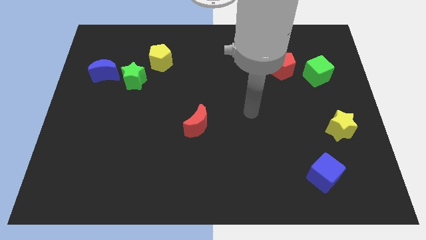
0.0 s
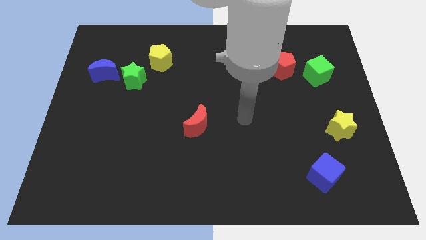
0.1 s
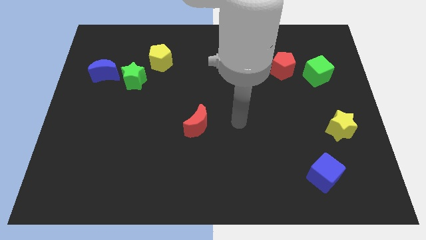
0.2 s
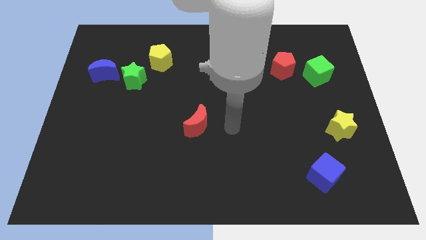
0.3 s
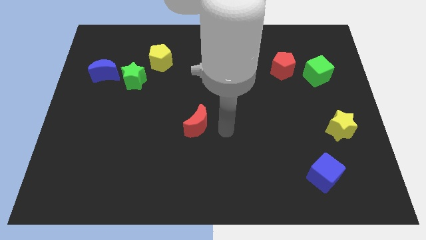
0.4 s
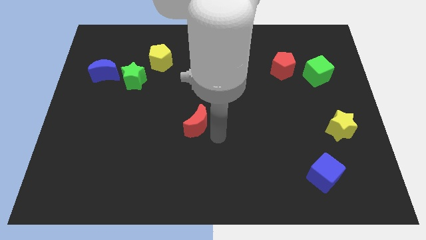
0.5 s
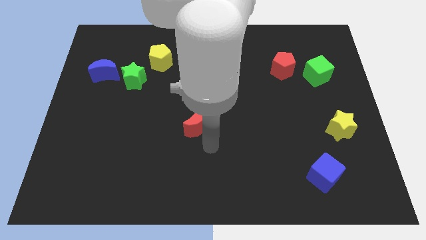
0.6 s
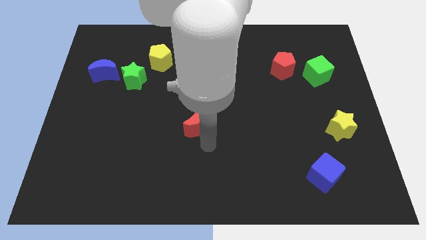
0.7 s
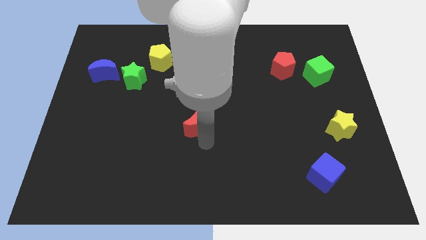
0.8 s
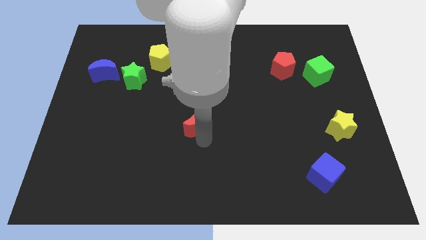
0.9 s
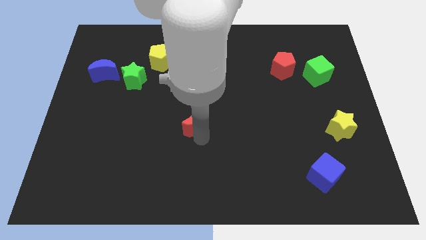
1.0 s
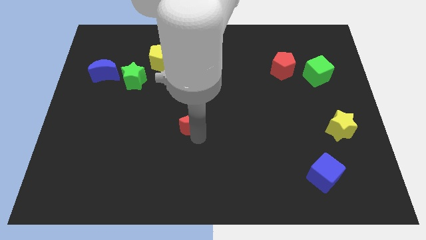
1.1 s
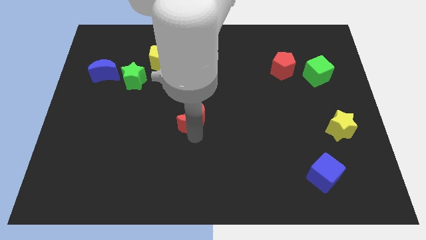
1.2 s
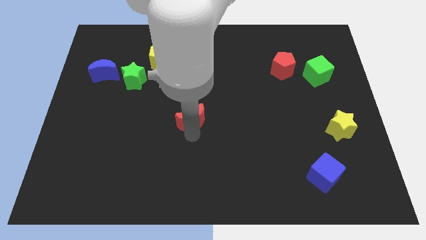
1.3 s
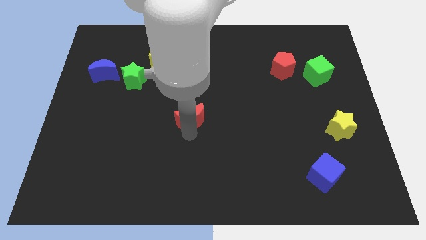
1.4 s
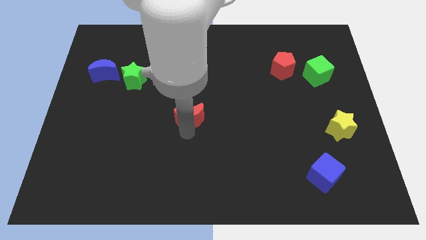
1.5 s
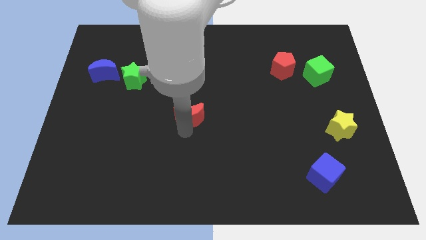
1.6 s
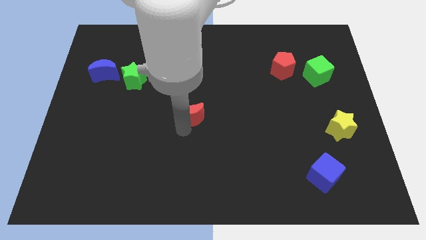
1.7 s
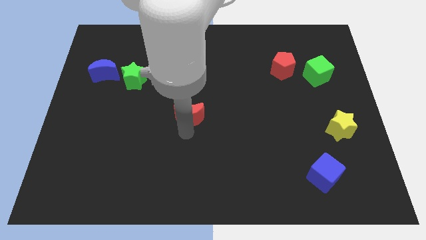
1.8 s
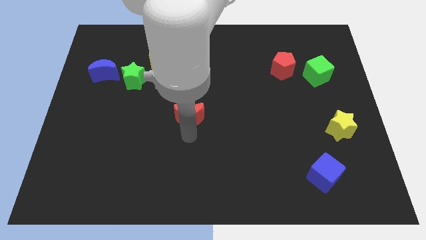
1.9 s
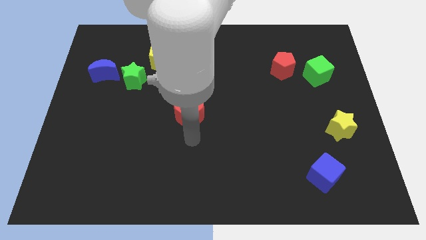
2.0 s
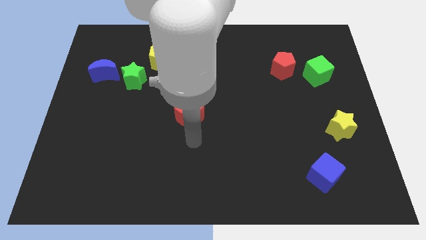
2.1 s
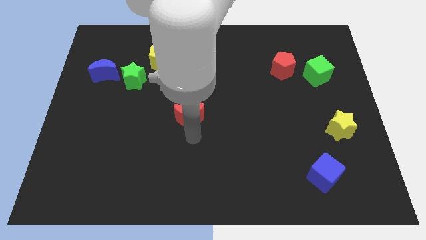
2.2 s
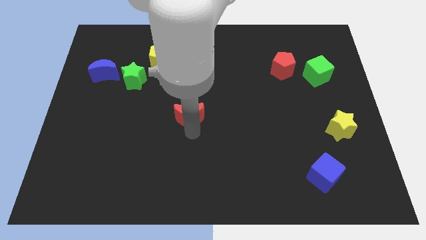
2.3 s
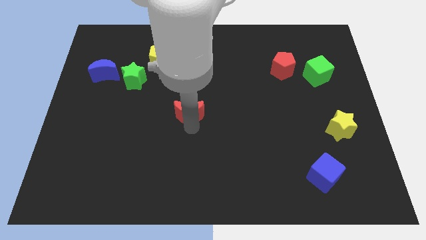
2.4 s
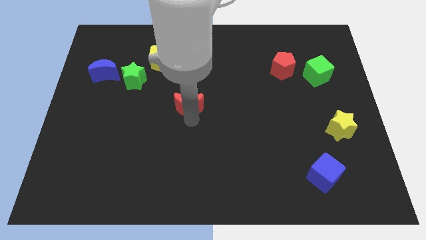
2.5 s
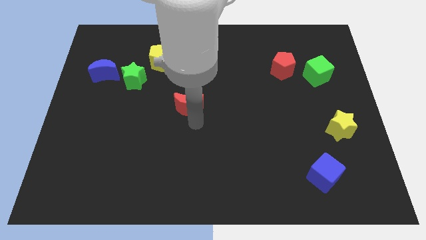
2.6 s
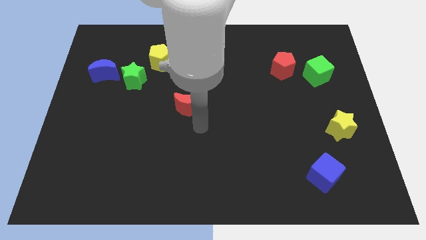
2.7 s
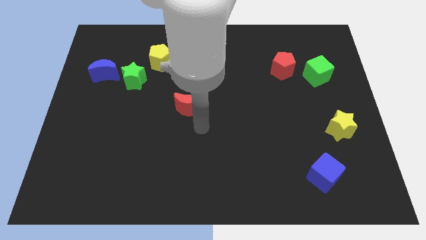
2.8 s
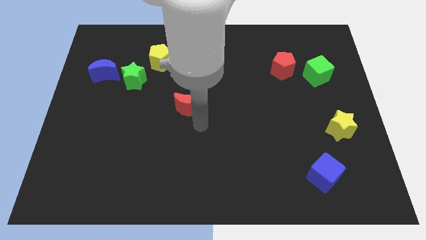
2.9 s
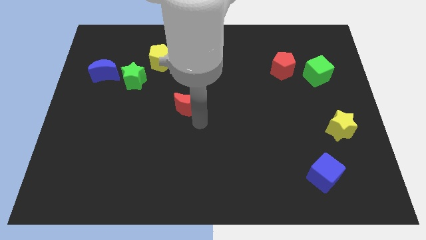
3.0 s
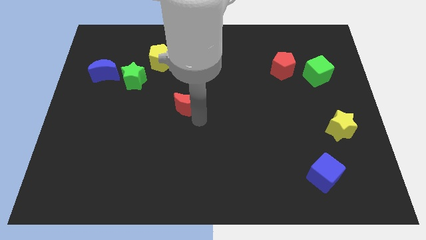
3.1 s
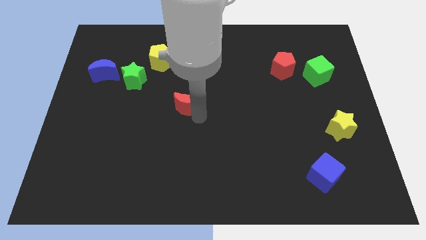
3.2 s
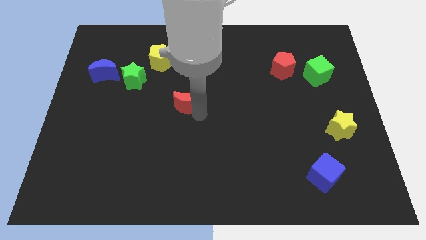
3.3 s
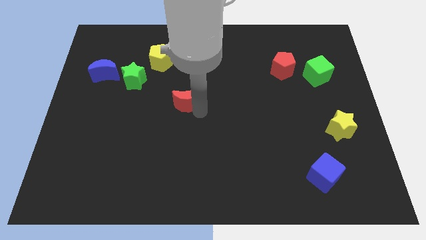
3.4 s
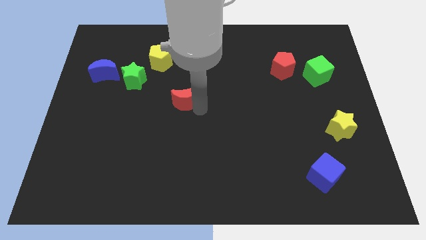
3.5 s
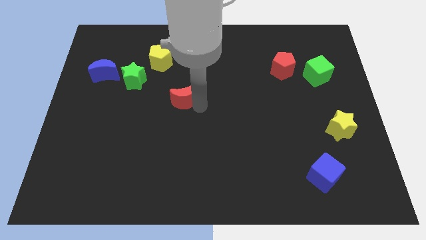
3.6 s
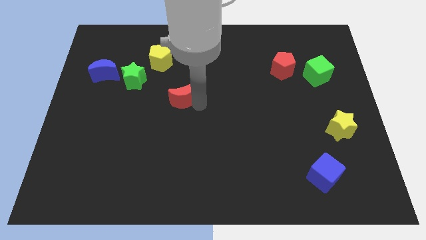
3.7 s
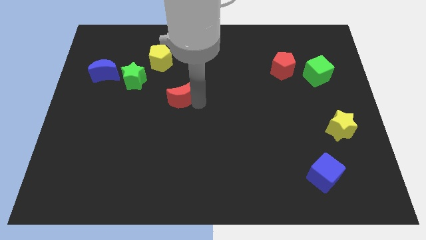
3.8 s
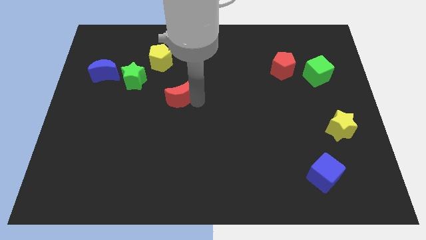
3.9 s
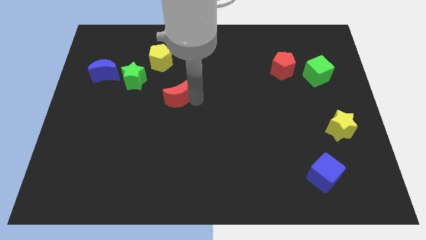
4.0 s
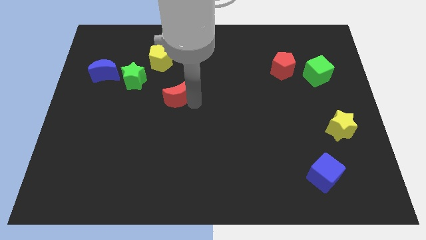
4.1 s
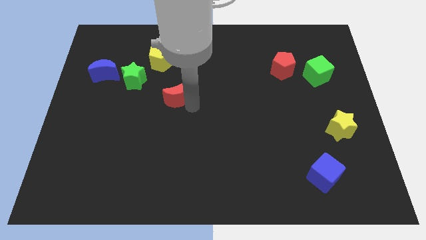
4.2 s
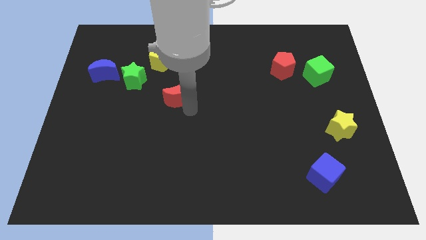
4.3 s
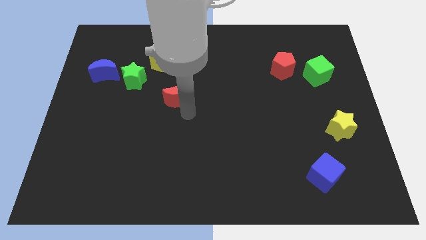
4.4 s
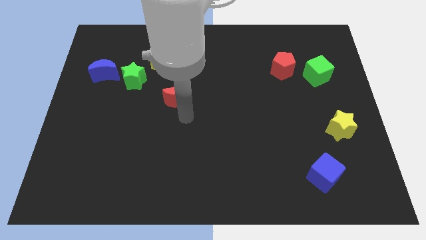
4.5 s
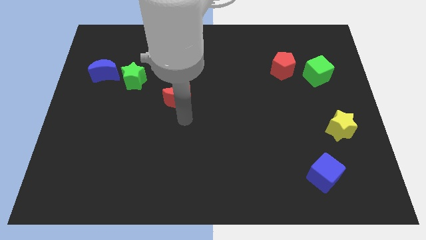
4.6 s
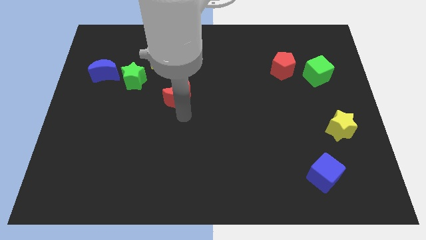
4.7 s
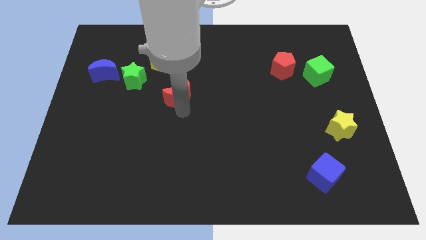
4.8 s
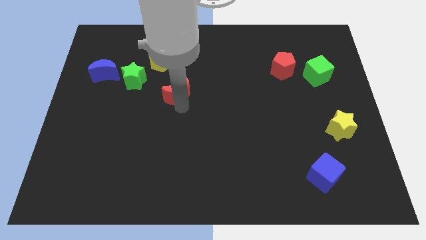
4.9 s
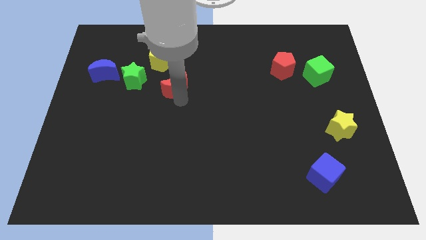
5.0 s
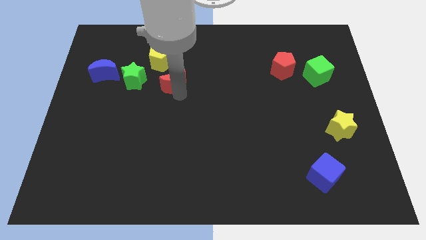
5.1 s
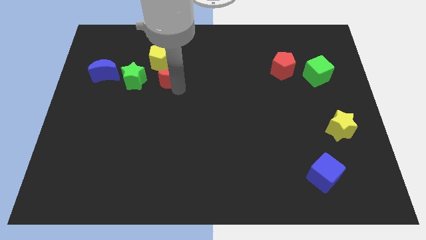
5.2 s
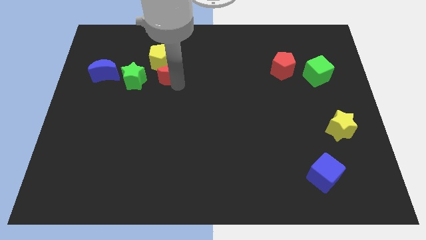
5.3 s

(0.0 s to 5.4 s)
push the red moon towards the yellow pentagon

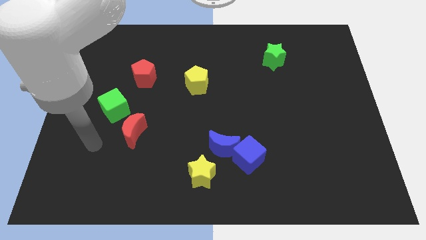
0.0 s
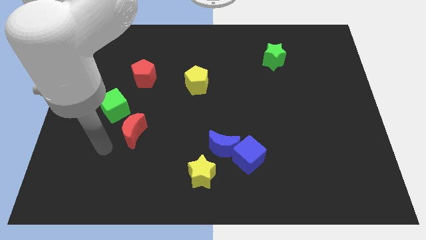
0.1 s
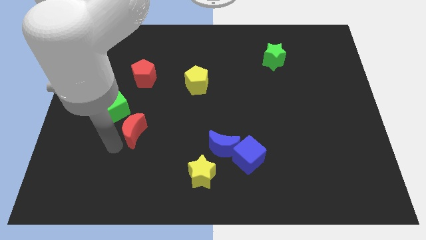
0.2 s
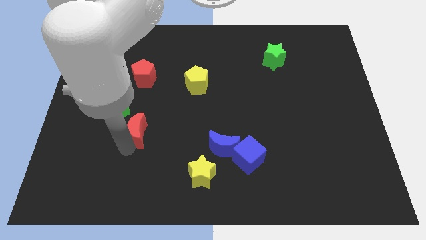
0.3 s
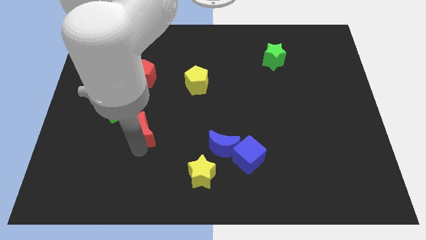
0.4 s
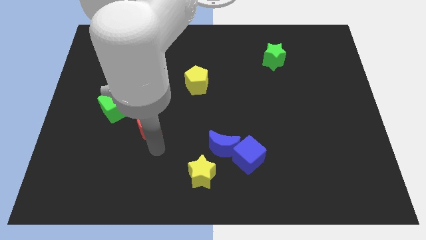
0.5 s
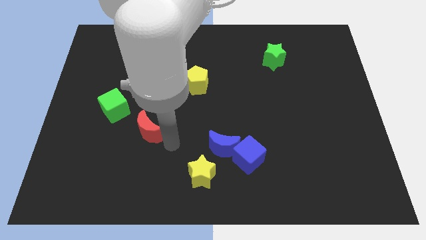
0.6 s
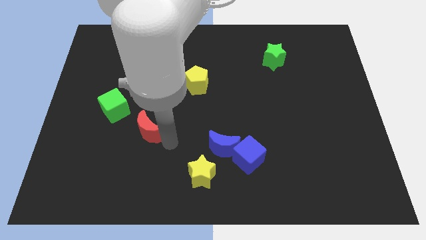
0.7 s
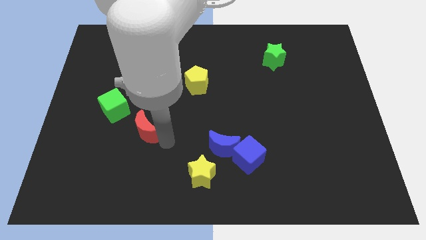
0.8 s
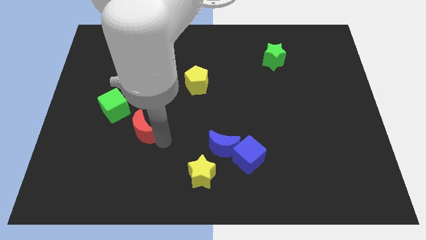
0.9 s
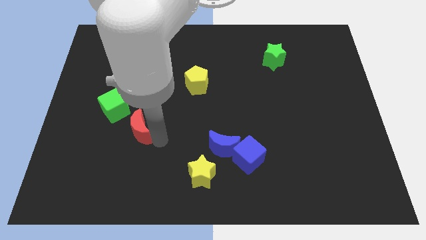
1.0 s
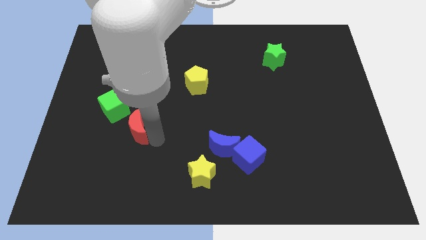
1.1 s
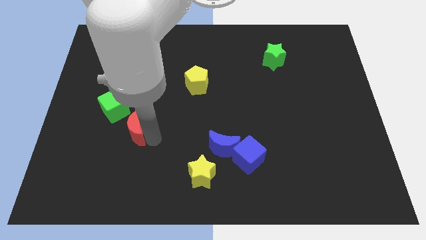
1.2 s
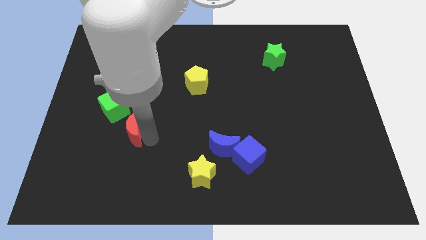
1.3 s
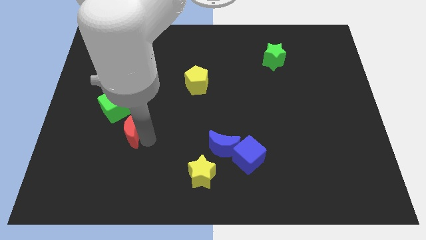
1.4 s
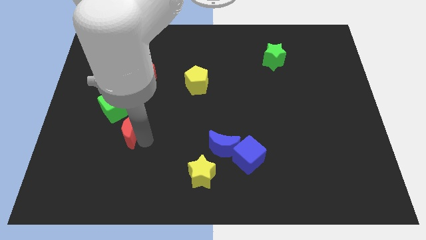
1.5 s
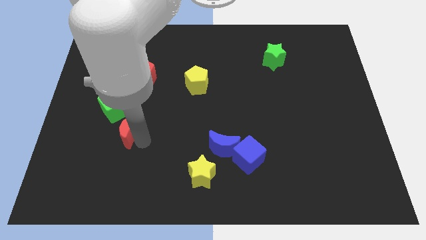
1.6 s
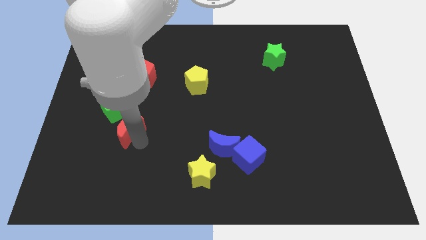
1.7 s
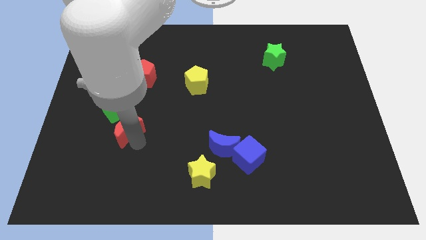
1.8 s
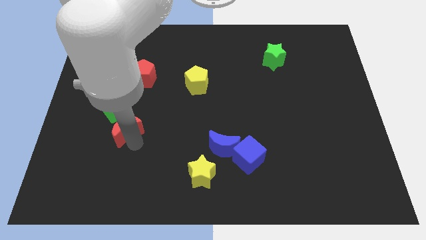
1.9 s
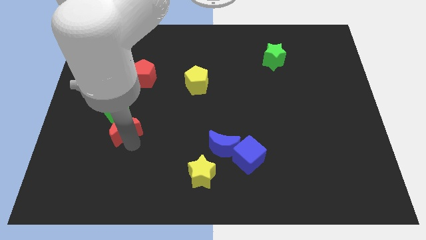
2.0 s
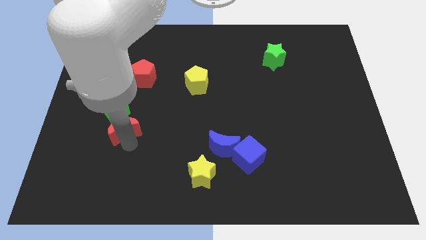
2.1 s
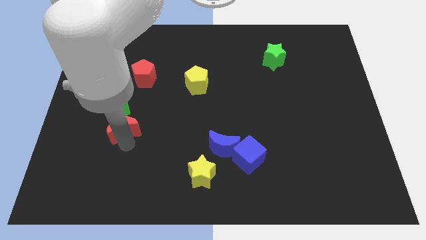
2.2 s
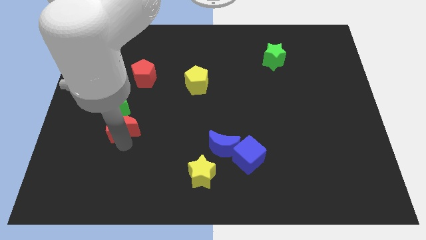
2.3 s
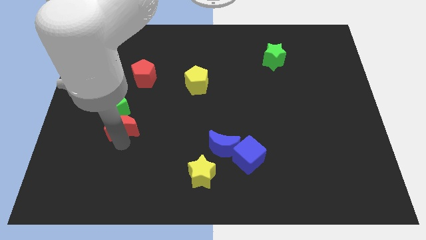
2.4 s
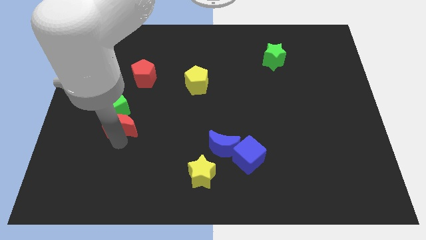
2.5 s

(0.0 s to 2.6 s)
put the red moon close to the green cube
